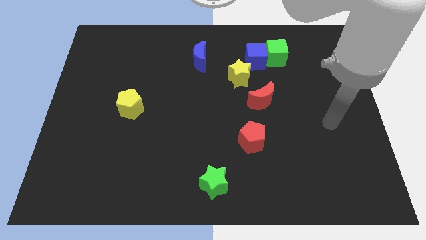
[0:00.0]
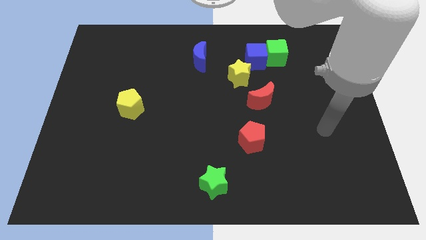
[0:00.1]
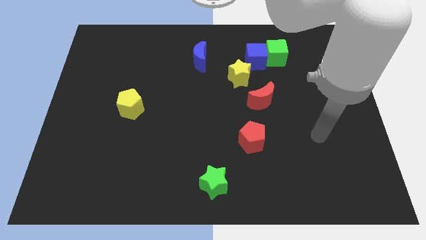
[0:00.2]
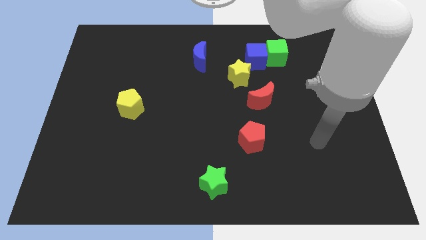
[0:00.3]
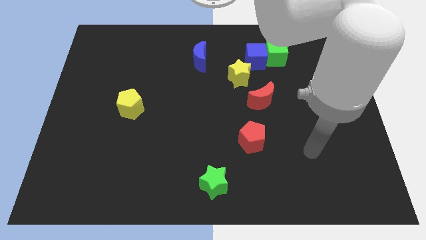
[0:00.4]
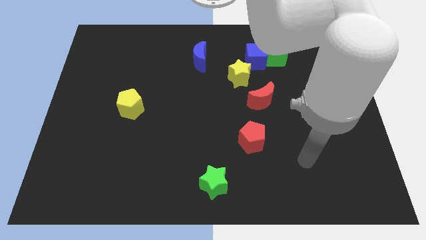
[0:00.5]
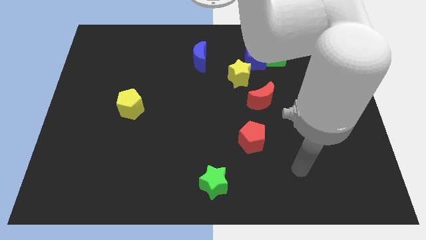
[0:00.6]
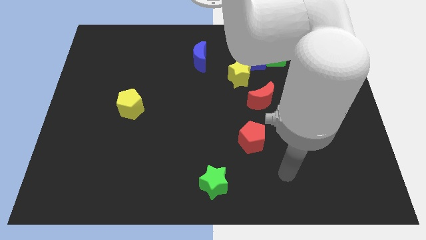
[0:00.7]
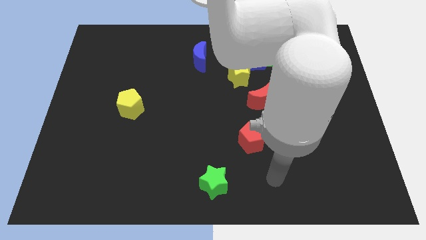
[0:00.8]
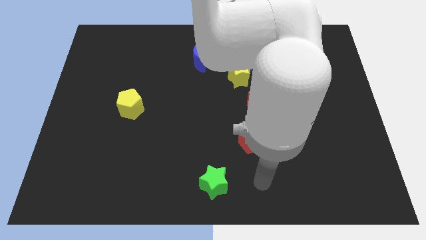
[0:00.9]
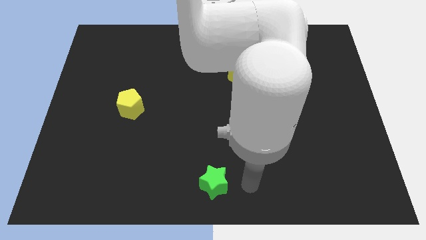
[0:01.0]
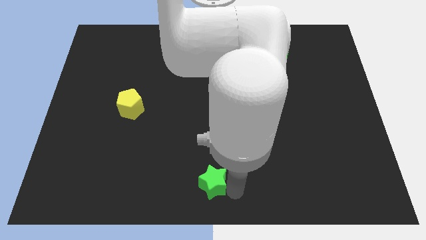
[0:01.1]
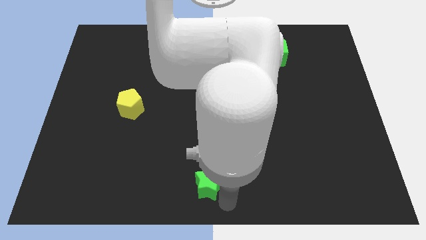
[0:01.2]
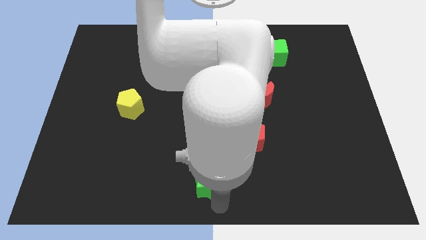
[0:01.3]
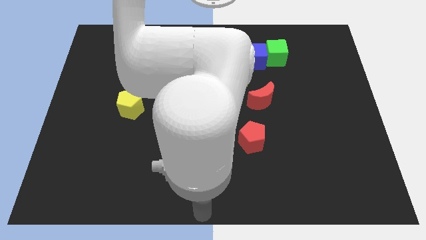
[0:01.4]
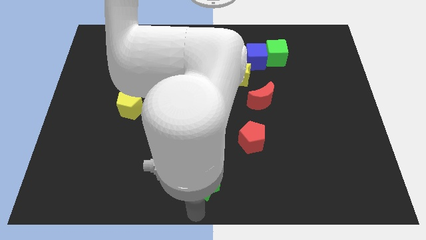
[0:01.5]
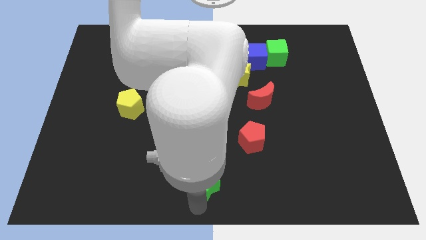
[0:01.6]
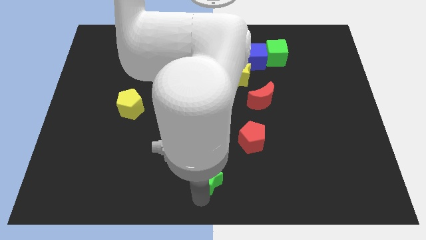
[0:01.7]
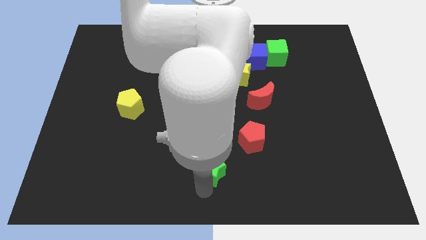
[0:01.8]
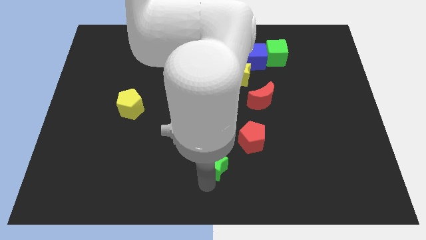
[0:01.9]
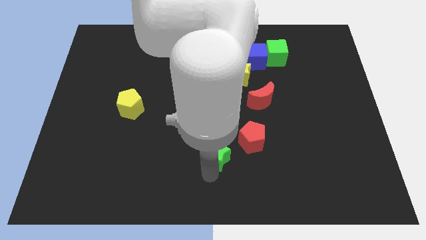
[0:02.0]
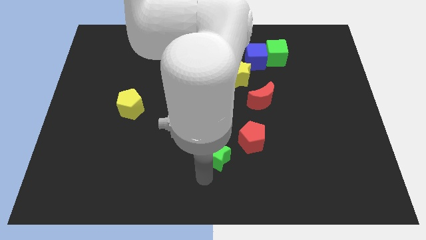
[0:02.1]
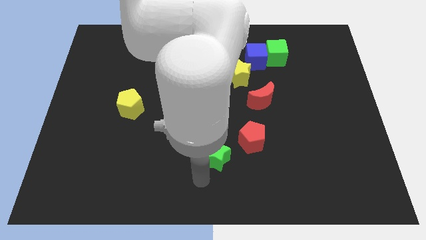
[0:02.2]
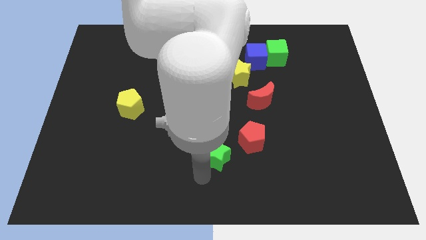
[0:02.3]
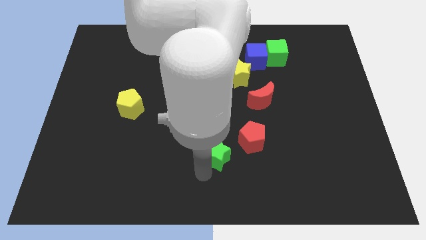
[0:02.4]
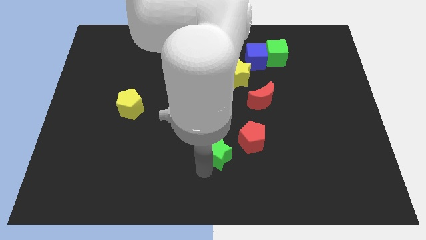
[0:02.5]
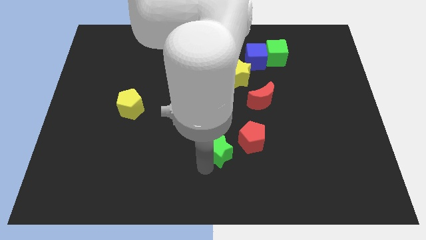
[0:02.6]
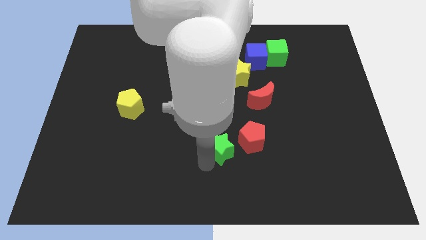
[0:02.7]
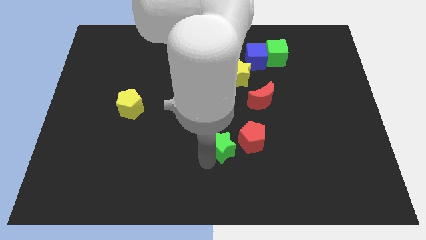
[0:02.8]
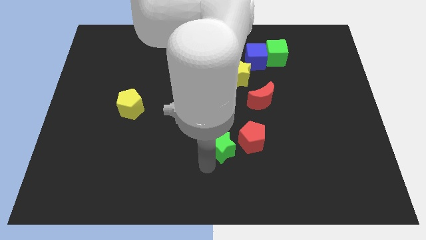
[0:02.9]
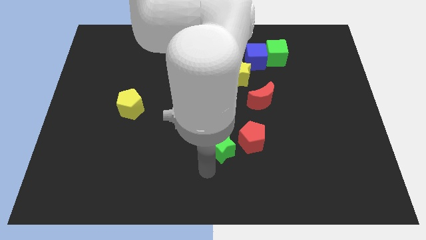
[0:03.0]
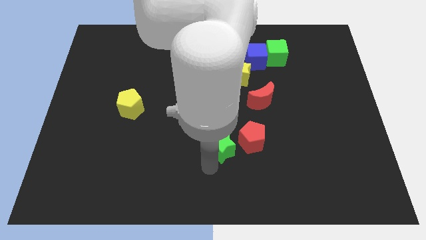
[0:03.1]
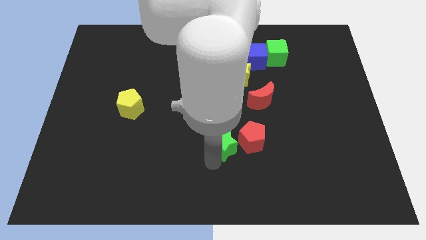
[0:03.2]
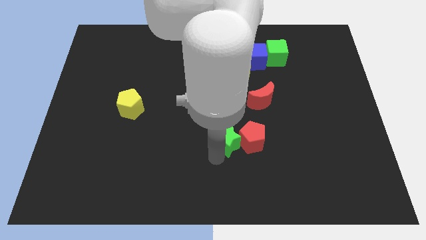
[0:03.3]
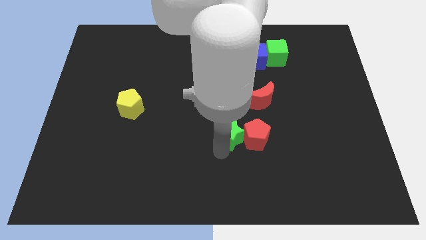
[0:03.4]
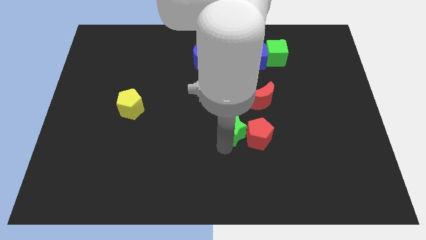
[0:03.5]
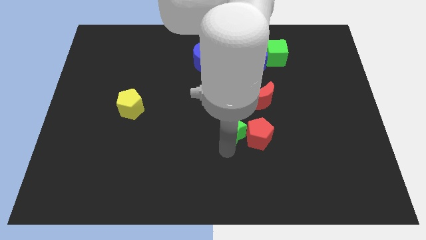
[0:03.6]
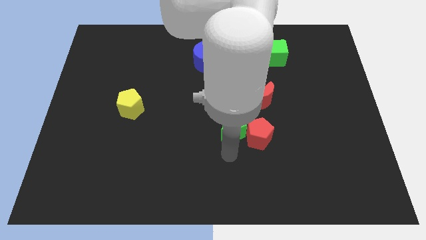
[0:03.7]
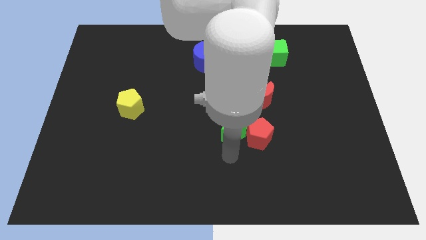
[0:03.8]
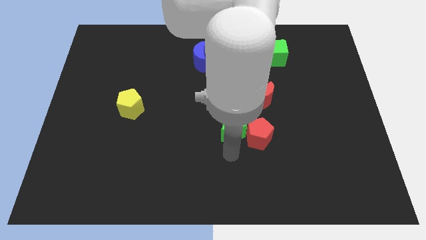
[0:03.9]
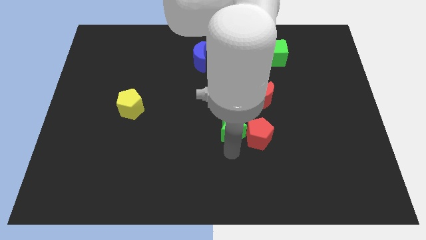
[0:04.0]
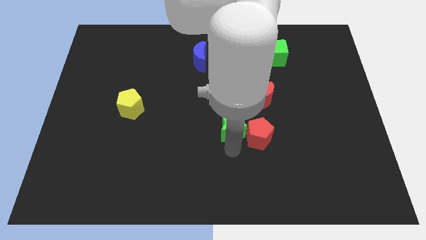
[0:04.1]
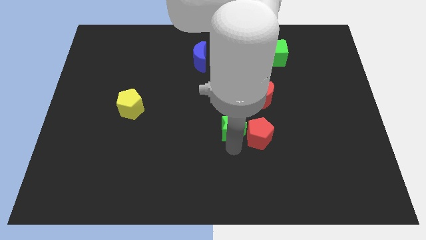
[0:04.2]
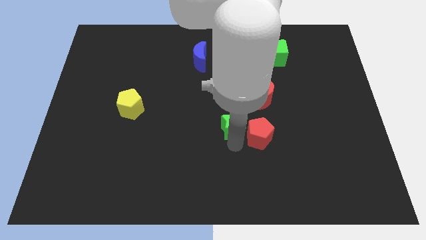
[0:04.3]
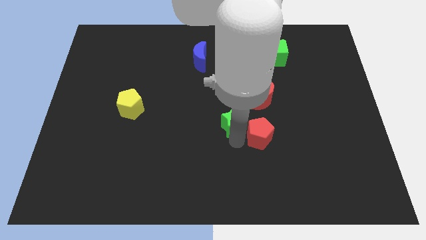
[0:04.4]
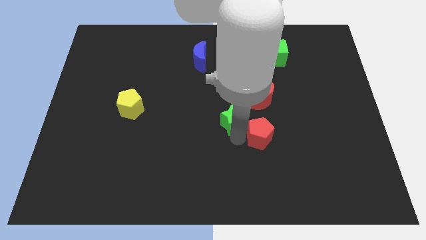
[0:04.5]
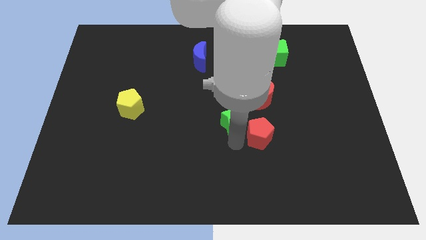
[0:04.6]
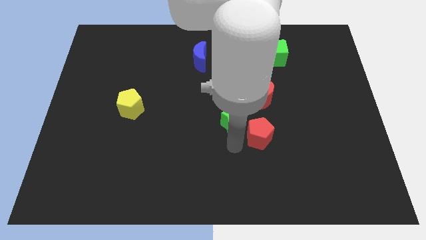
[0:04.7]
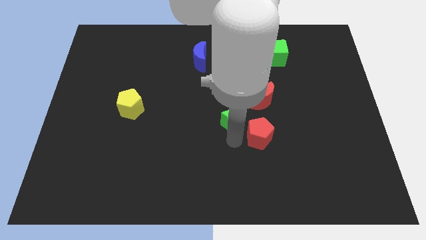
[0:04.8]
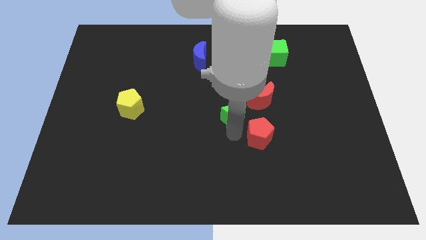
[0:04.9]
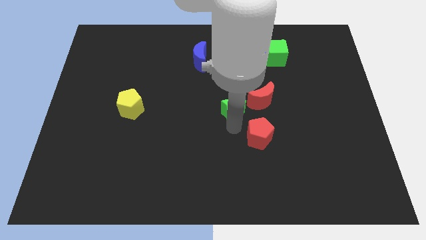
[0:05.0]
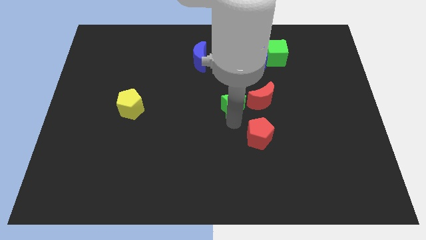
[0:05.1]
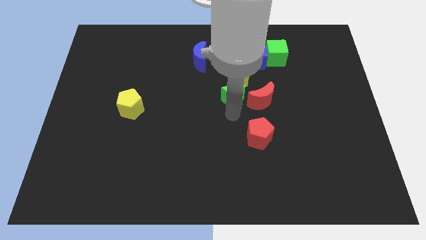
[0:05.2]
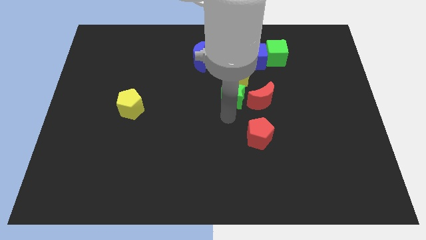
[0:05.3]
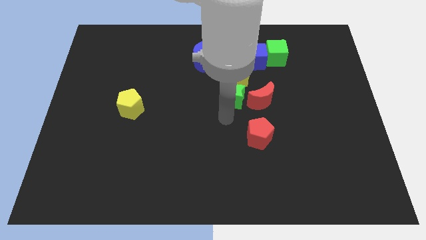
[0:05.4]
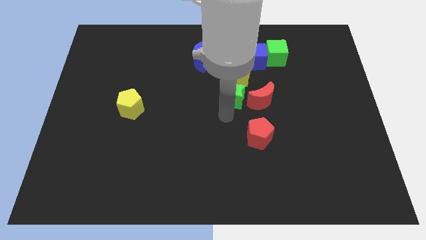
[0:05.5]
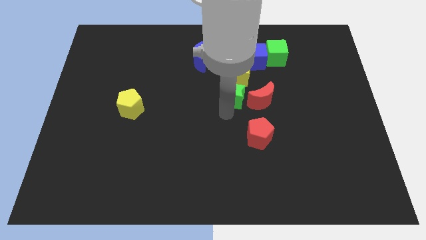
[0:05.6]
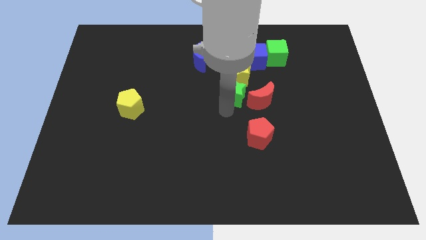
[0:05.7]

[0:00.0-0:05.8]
put the green star next to the yellow star

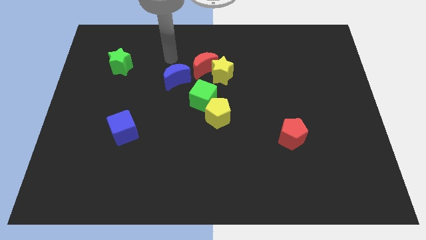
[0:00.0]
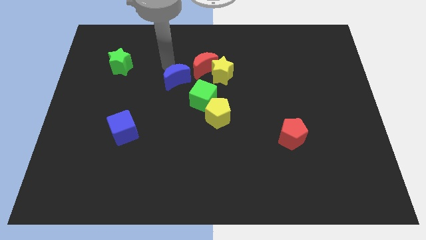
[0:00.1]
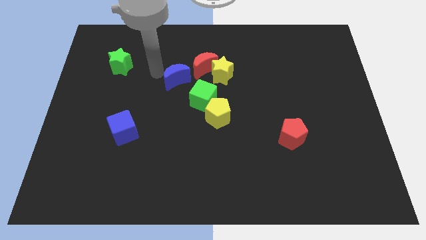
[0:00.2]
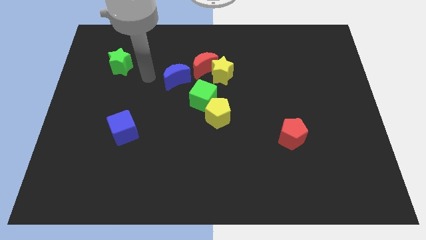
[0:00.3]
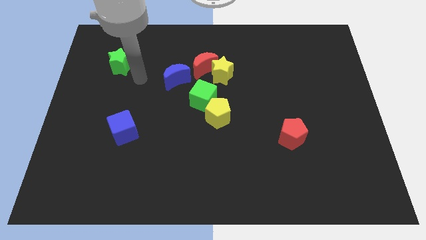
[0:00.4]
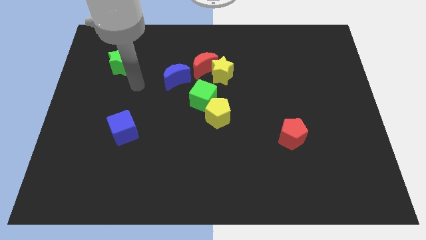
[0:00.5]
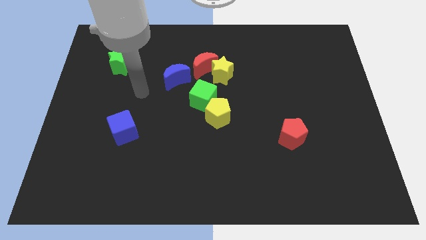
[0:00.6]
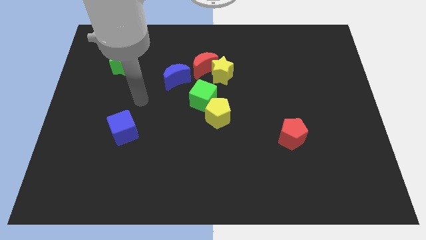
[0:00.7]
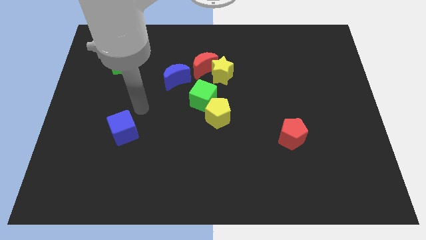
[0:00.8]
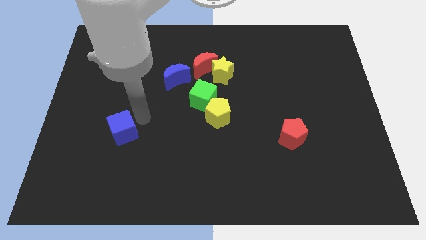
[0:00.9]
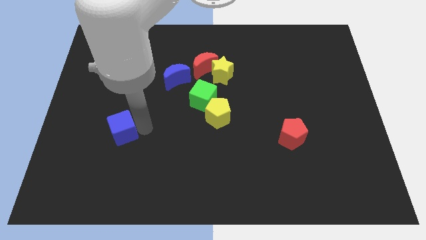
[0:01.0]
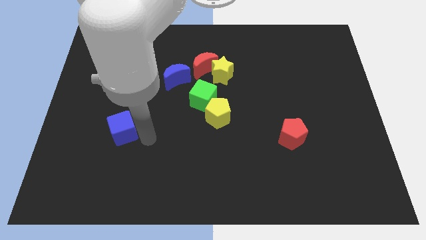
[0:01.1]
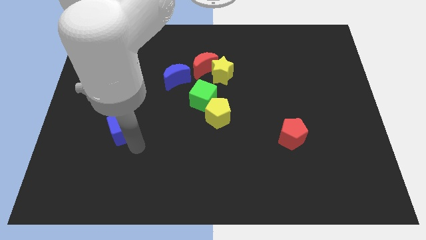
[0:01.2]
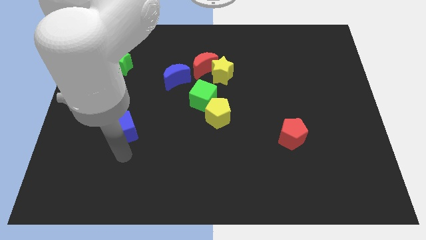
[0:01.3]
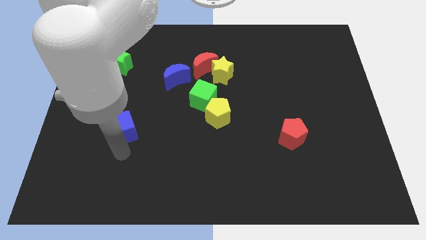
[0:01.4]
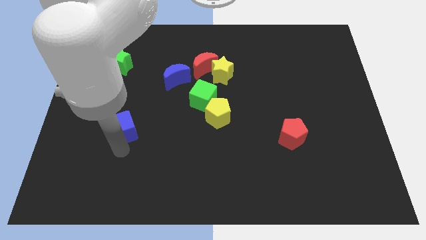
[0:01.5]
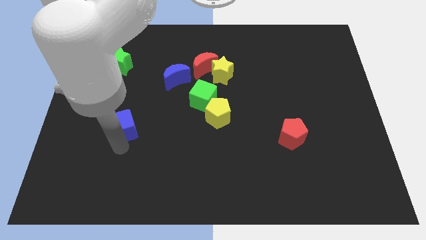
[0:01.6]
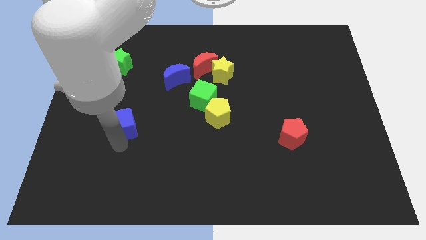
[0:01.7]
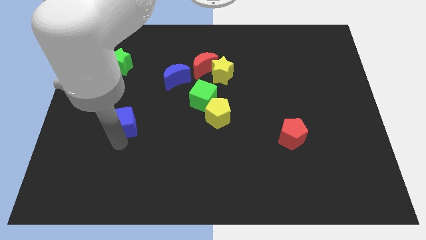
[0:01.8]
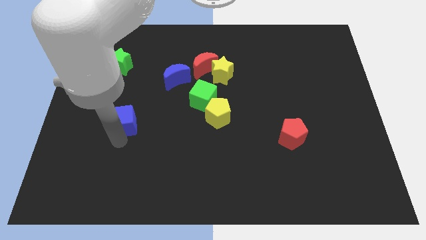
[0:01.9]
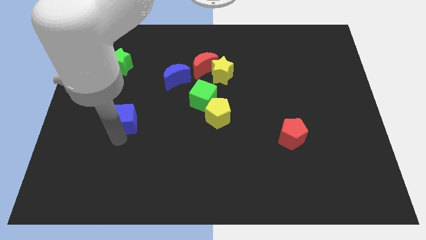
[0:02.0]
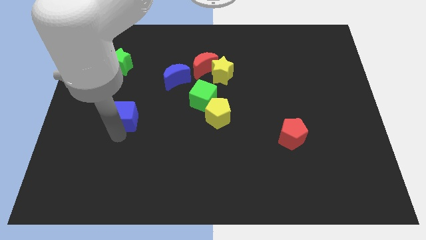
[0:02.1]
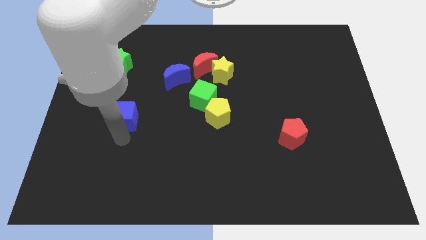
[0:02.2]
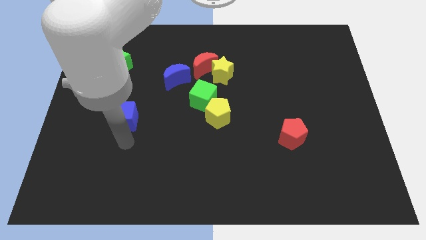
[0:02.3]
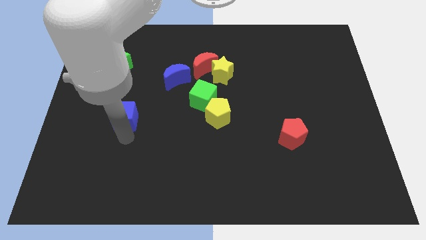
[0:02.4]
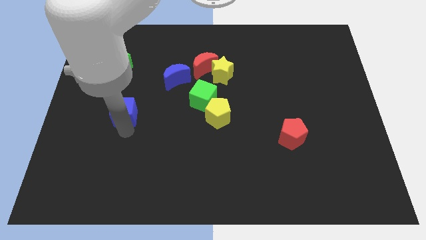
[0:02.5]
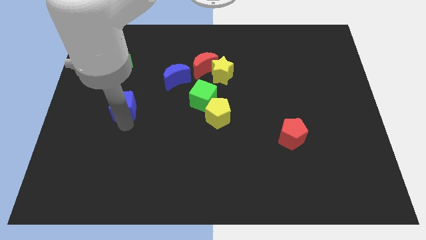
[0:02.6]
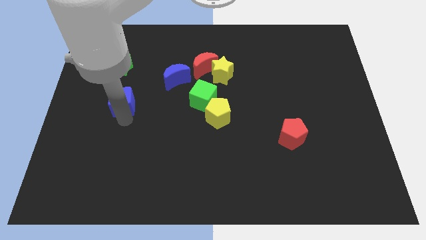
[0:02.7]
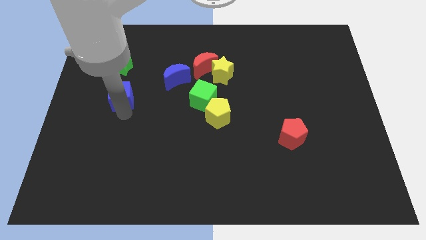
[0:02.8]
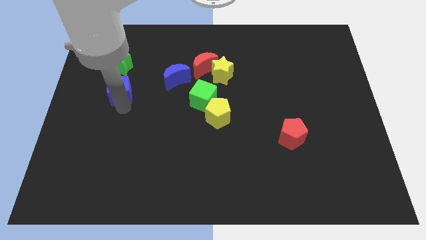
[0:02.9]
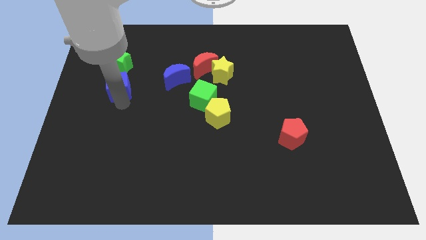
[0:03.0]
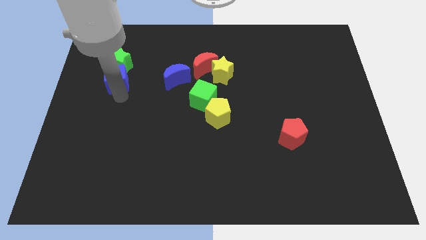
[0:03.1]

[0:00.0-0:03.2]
put the blue cube towards the green star
